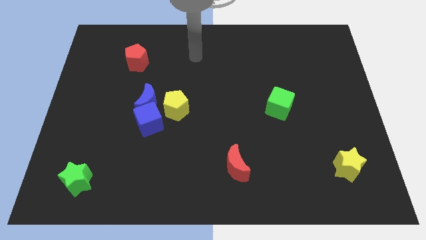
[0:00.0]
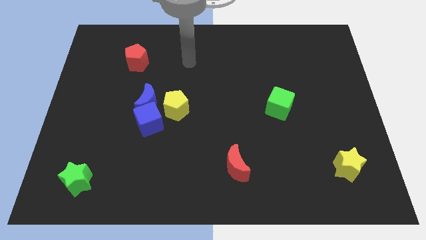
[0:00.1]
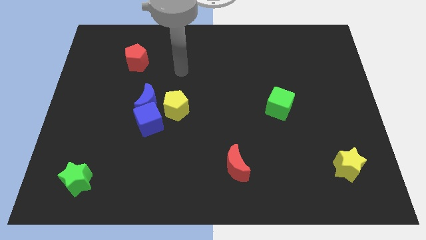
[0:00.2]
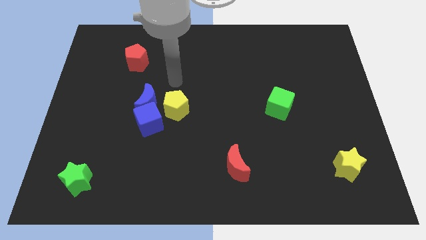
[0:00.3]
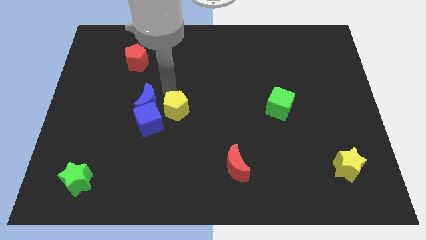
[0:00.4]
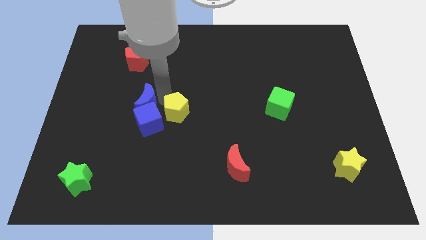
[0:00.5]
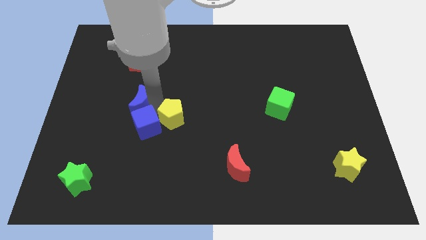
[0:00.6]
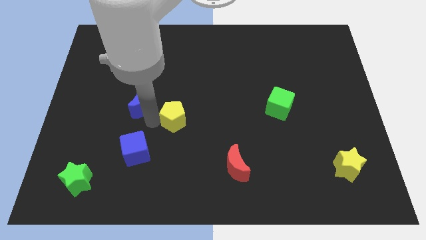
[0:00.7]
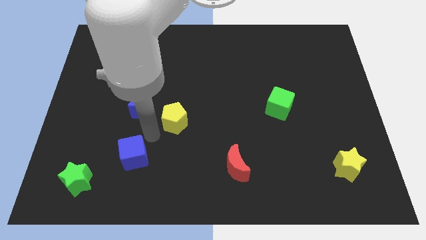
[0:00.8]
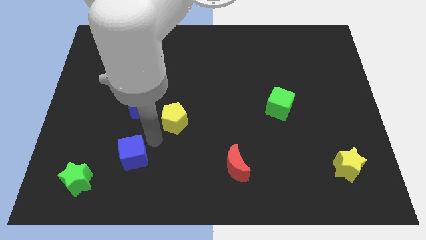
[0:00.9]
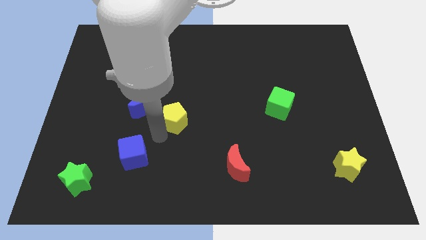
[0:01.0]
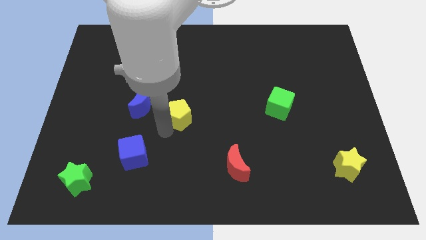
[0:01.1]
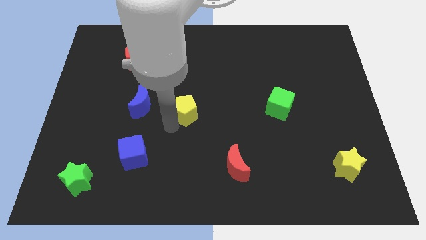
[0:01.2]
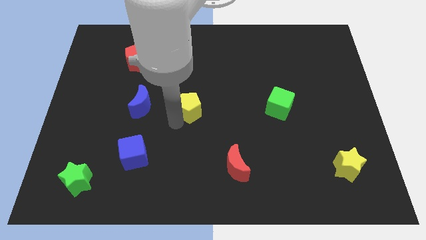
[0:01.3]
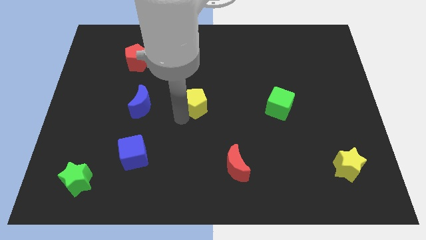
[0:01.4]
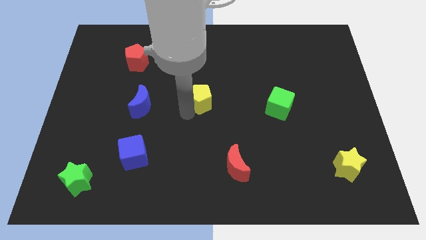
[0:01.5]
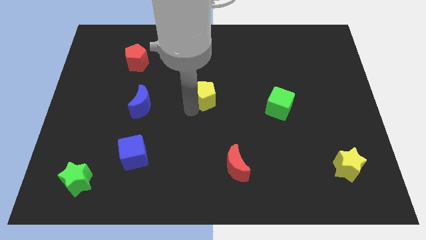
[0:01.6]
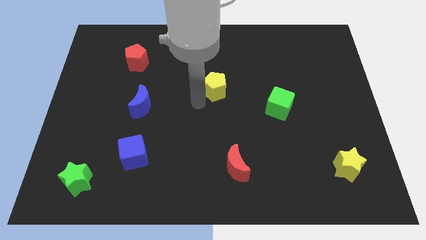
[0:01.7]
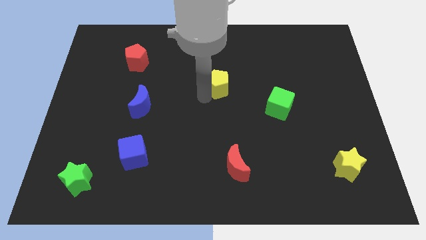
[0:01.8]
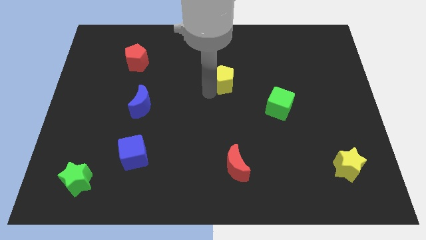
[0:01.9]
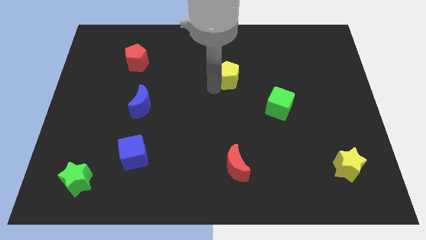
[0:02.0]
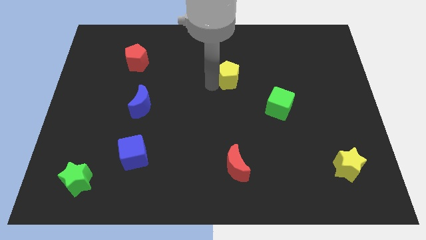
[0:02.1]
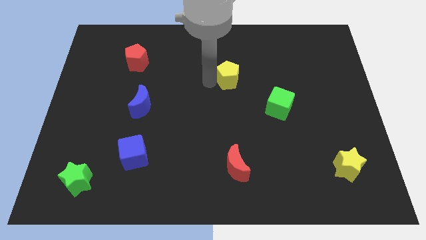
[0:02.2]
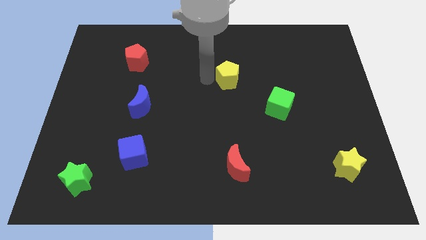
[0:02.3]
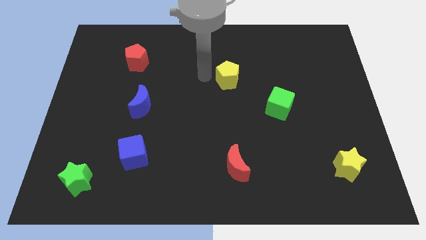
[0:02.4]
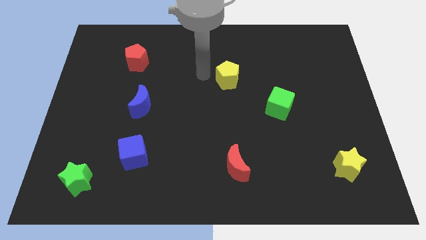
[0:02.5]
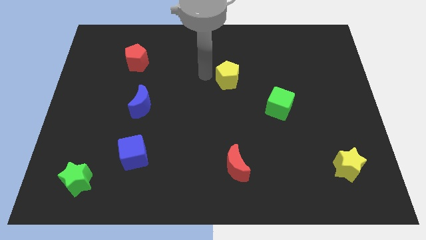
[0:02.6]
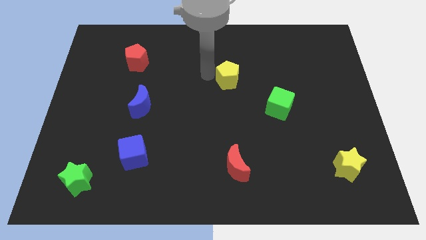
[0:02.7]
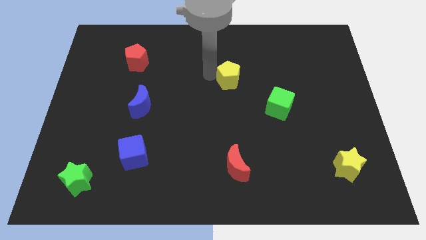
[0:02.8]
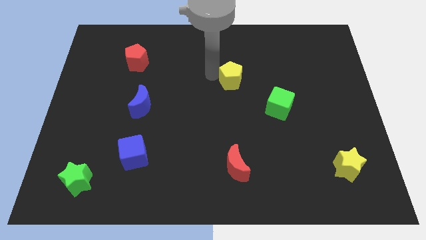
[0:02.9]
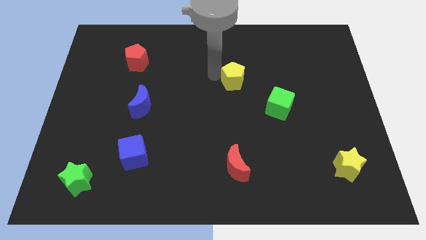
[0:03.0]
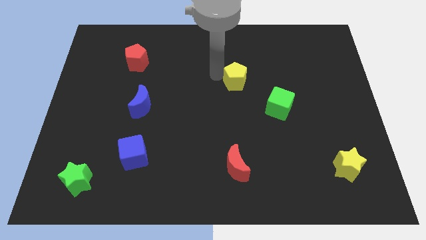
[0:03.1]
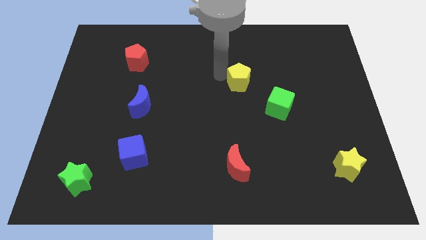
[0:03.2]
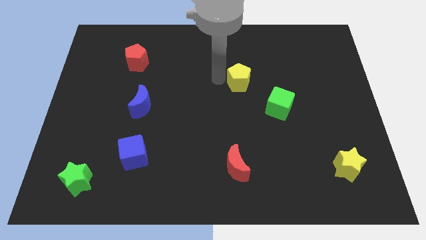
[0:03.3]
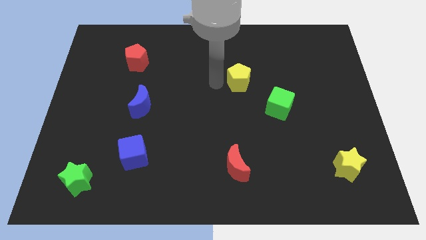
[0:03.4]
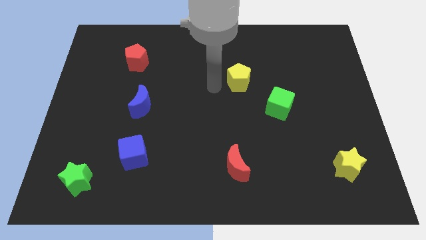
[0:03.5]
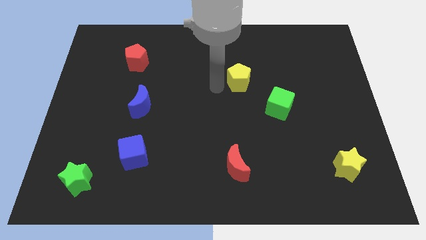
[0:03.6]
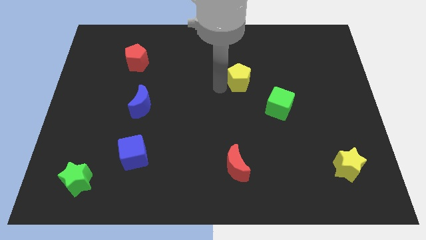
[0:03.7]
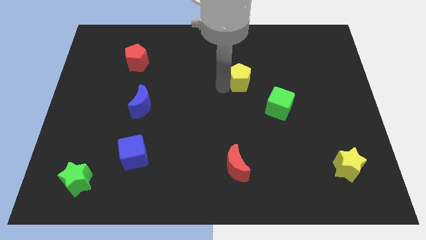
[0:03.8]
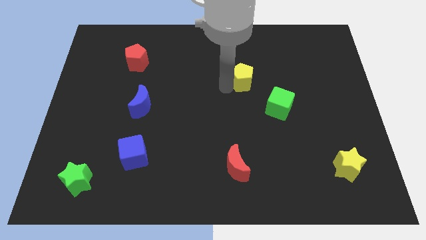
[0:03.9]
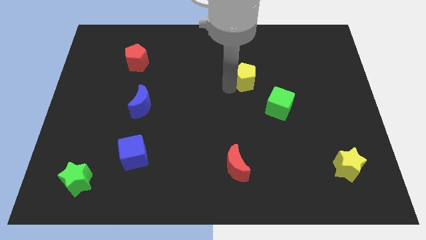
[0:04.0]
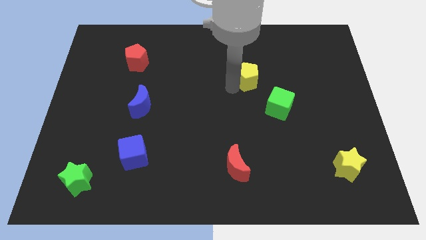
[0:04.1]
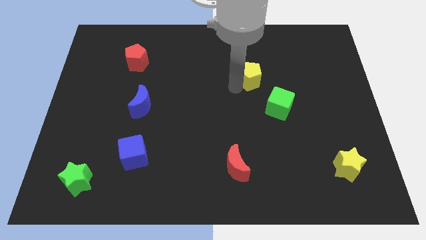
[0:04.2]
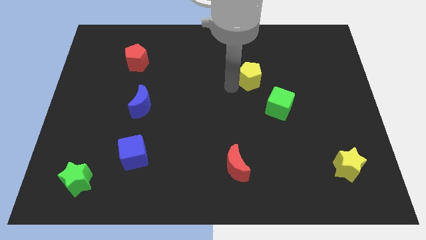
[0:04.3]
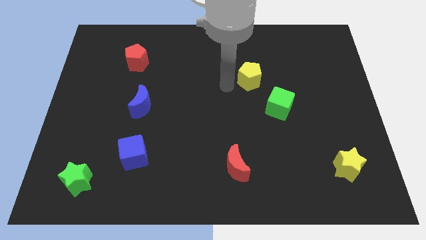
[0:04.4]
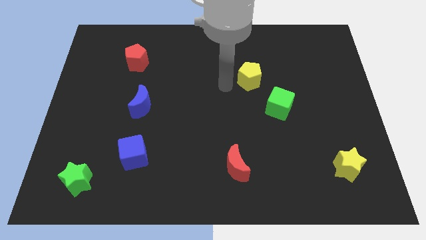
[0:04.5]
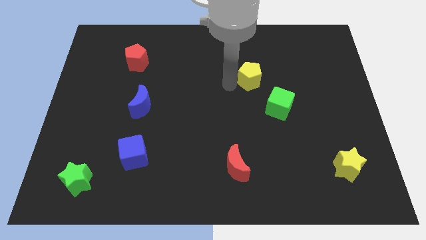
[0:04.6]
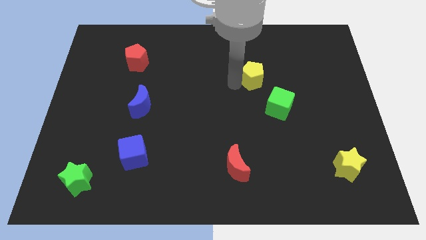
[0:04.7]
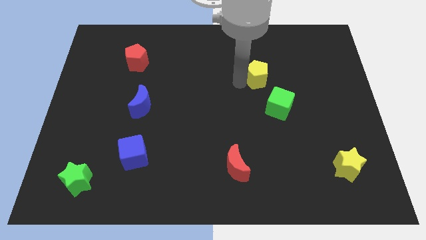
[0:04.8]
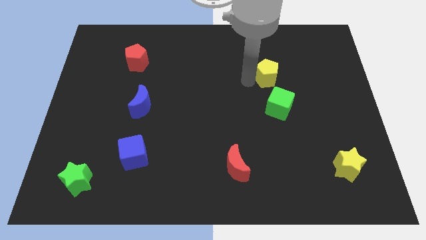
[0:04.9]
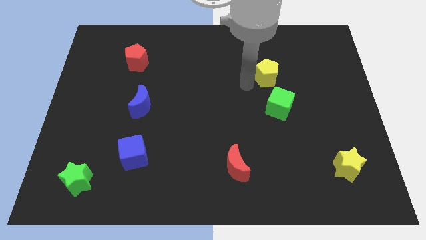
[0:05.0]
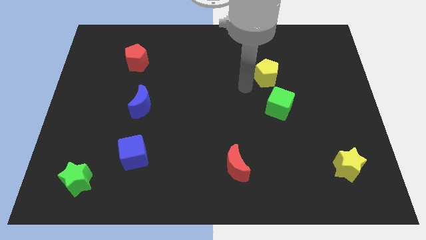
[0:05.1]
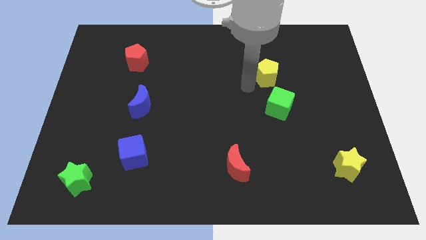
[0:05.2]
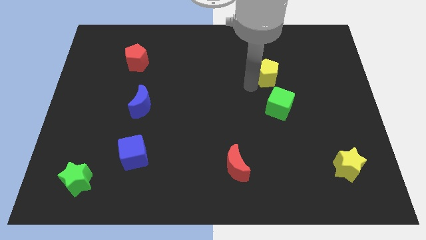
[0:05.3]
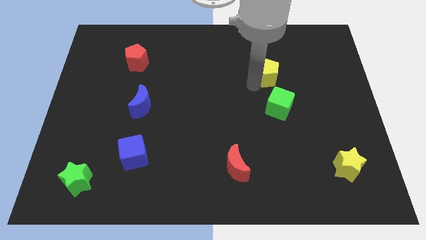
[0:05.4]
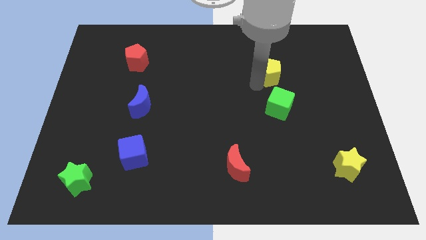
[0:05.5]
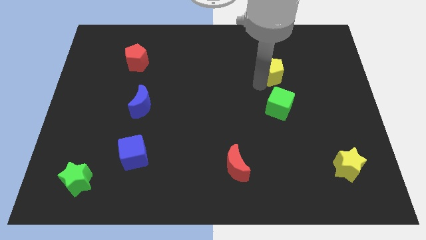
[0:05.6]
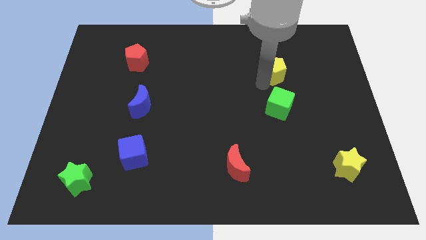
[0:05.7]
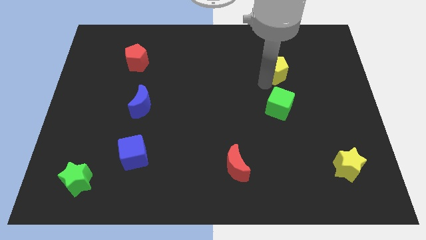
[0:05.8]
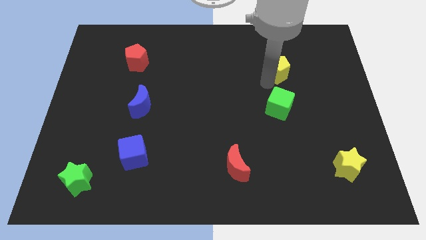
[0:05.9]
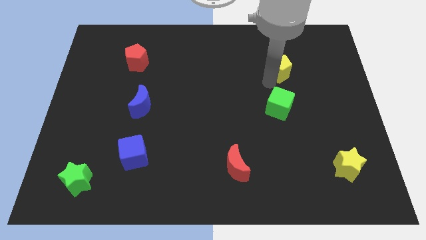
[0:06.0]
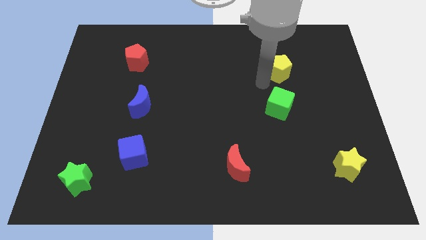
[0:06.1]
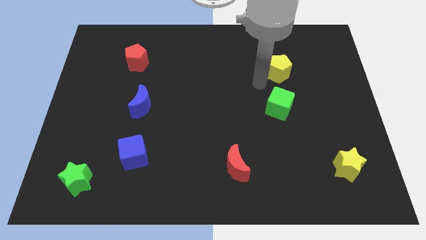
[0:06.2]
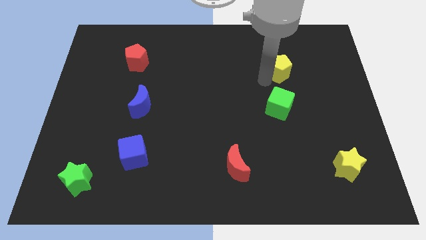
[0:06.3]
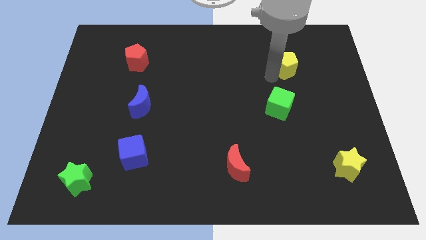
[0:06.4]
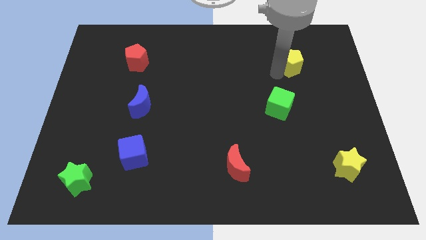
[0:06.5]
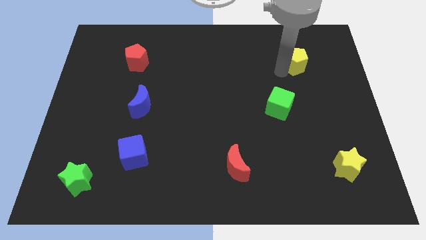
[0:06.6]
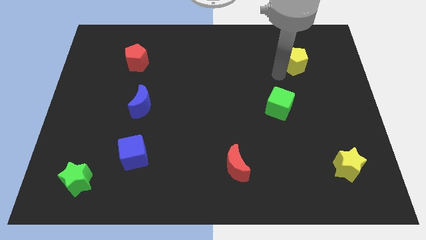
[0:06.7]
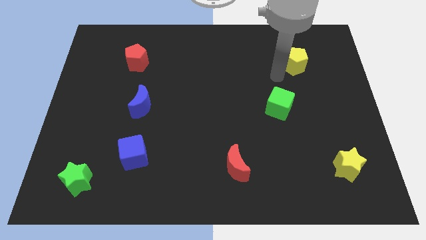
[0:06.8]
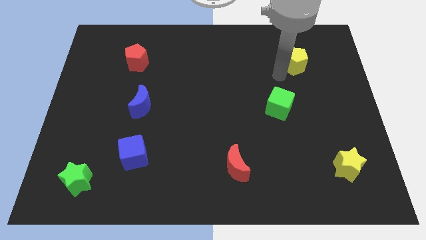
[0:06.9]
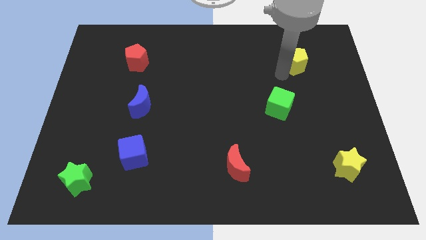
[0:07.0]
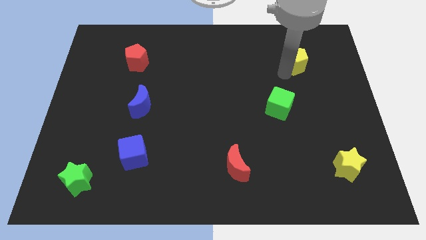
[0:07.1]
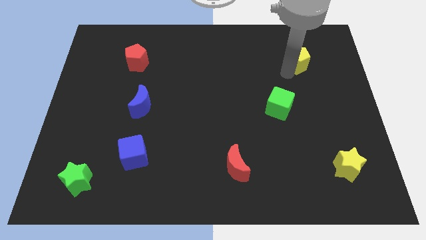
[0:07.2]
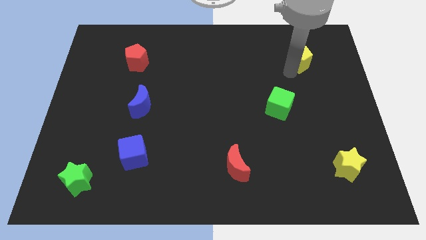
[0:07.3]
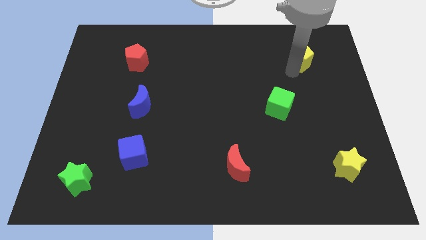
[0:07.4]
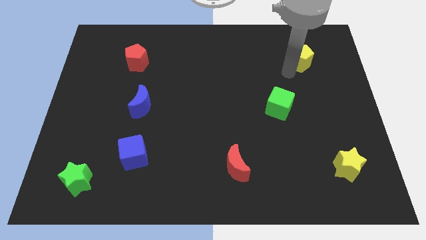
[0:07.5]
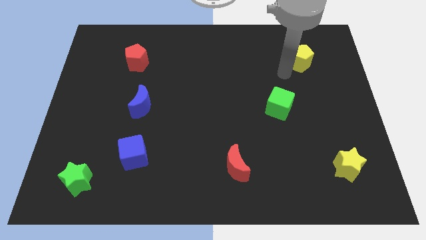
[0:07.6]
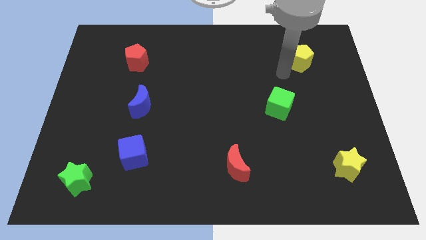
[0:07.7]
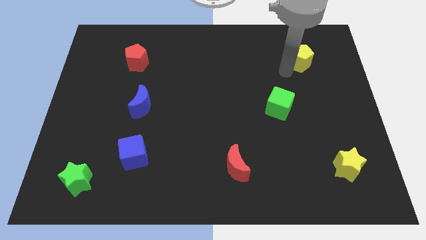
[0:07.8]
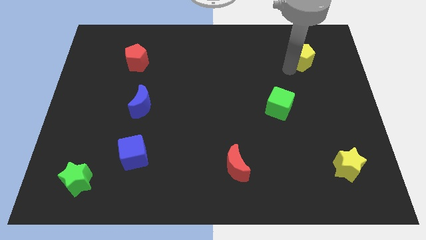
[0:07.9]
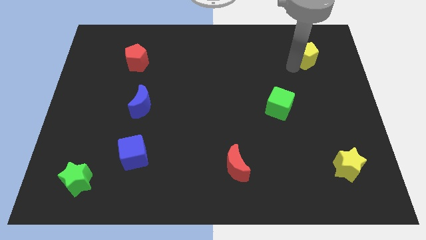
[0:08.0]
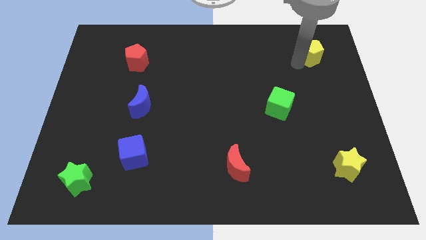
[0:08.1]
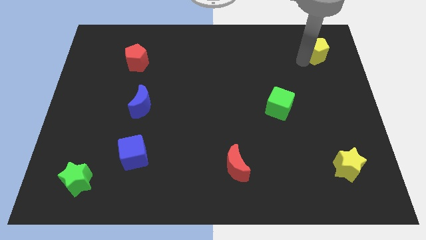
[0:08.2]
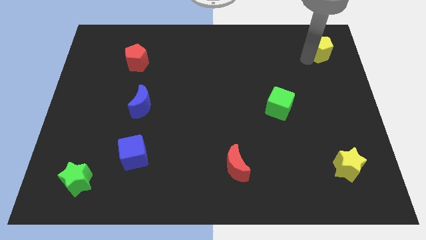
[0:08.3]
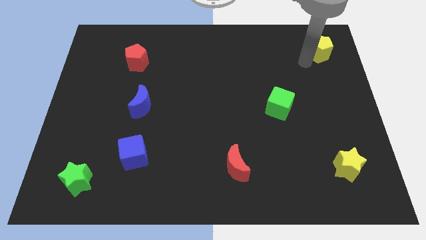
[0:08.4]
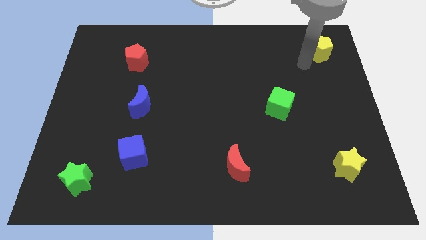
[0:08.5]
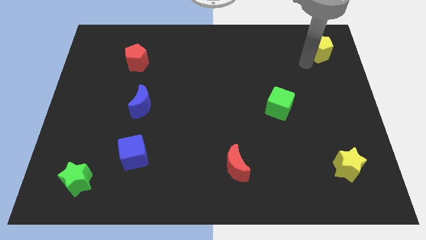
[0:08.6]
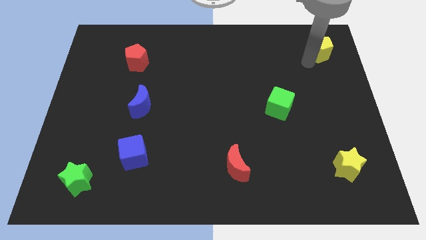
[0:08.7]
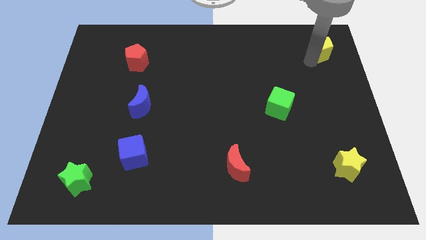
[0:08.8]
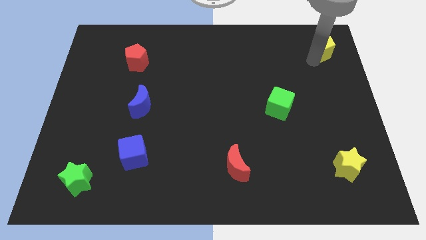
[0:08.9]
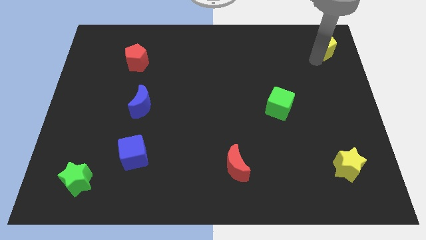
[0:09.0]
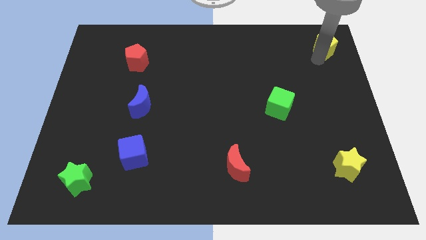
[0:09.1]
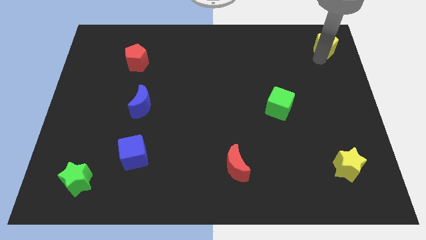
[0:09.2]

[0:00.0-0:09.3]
put the yellow pentagon to the upper right corner
